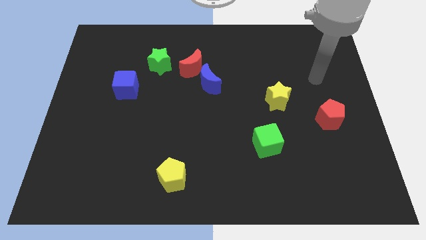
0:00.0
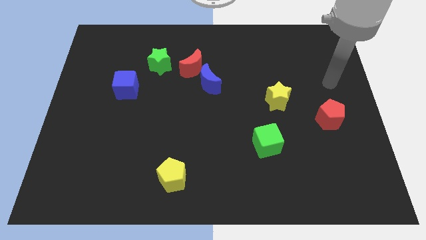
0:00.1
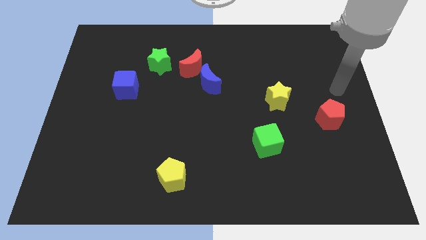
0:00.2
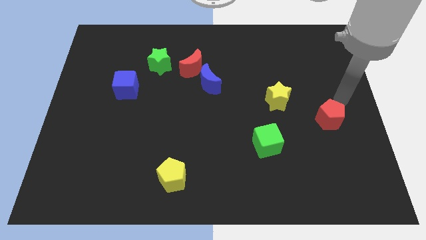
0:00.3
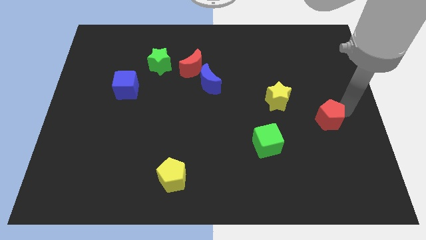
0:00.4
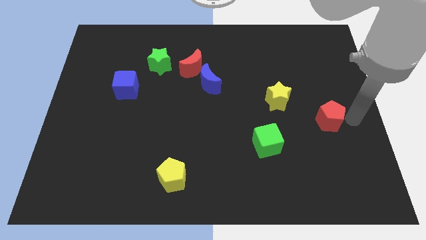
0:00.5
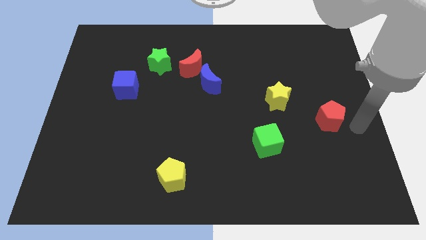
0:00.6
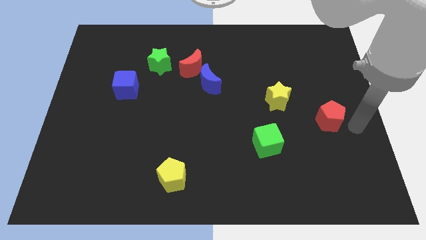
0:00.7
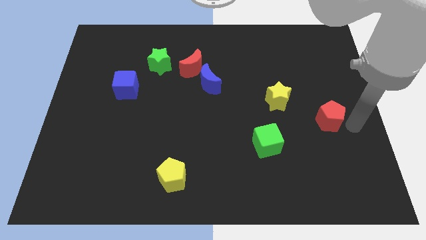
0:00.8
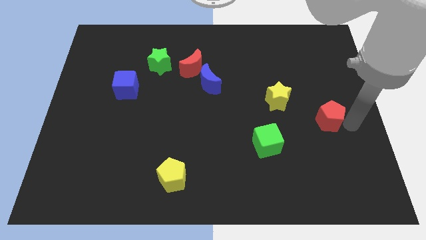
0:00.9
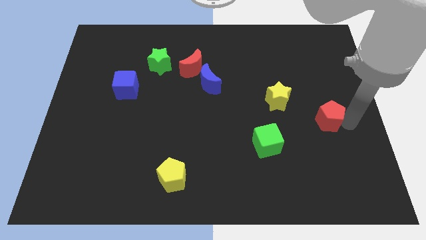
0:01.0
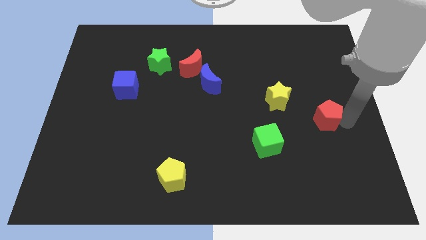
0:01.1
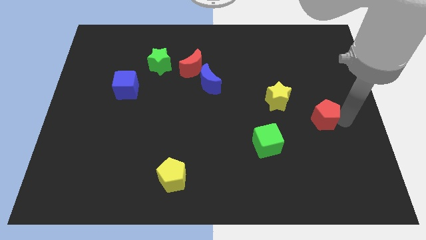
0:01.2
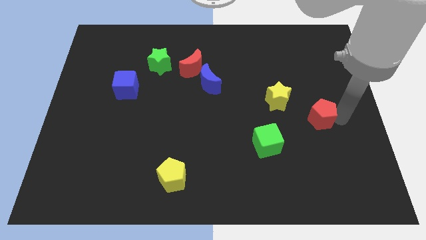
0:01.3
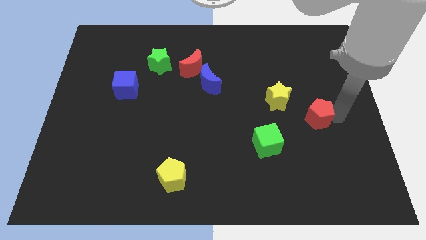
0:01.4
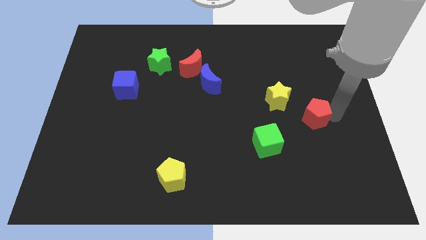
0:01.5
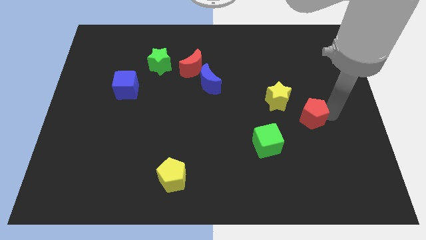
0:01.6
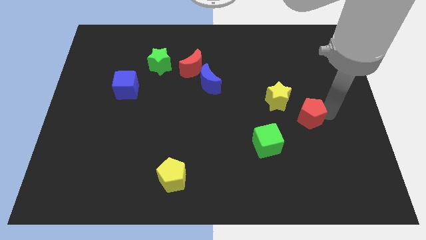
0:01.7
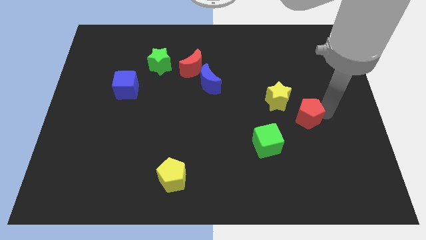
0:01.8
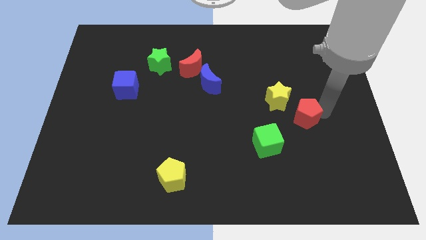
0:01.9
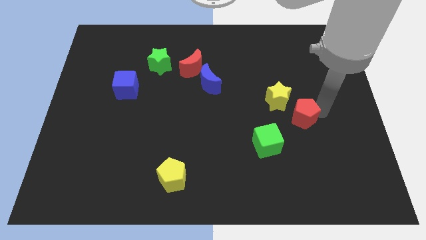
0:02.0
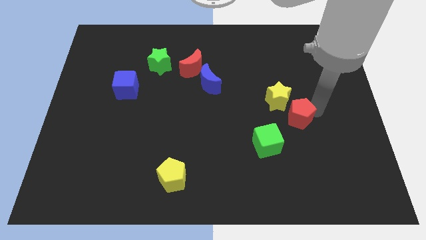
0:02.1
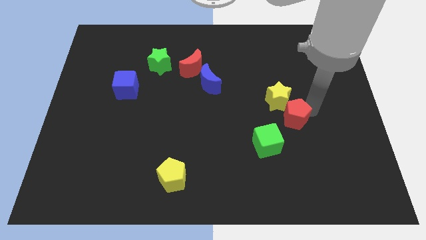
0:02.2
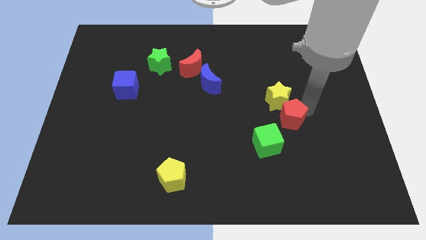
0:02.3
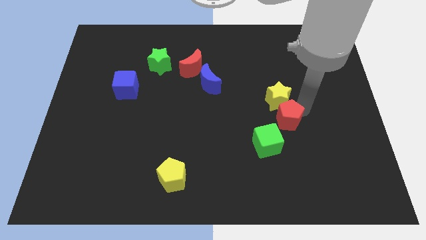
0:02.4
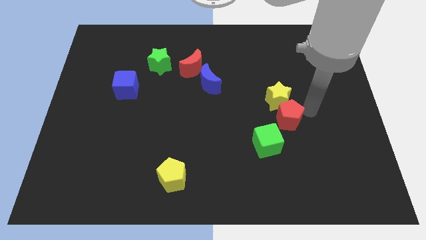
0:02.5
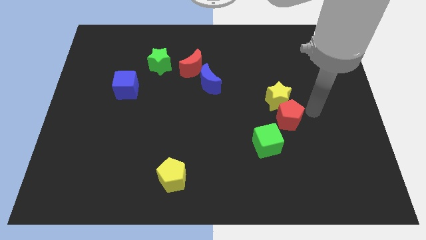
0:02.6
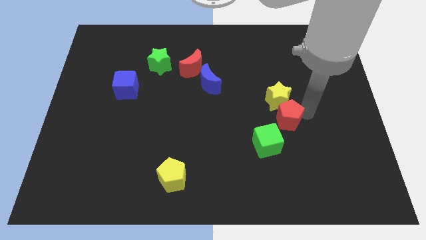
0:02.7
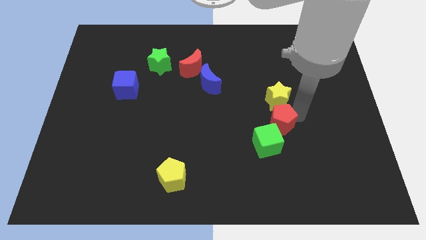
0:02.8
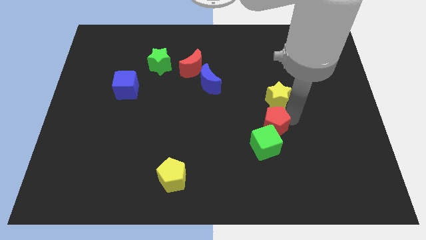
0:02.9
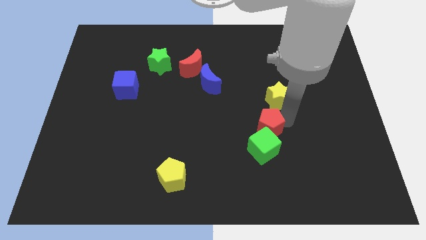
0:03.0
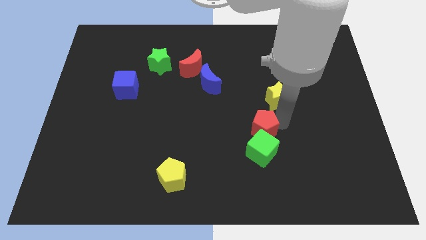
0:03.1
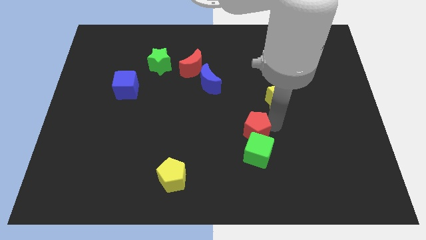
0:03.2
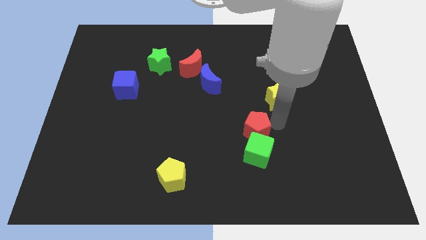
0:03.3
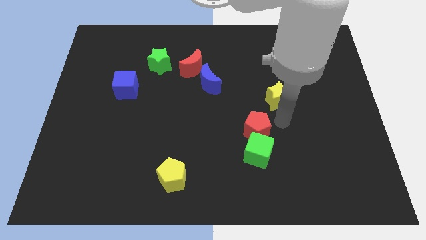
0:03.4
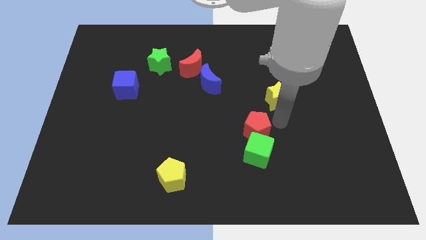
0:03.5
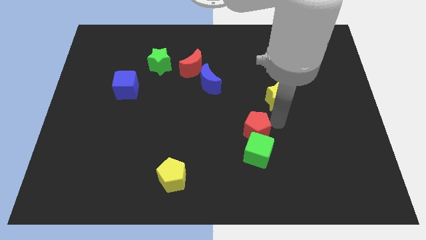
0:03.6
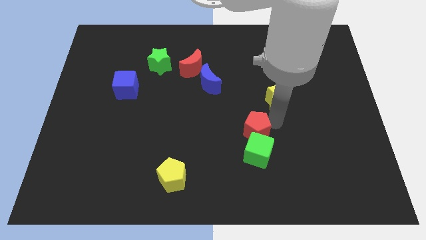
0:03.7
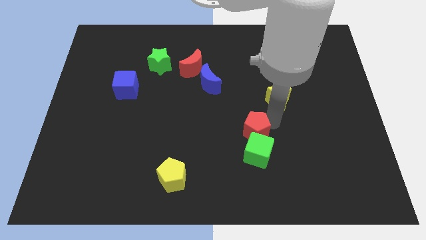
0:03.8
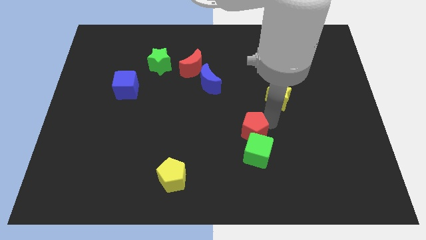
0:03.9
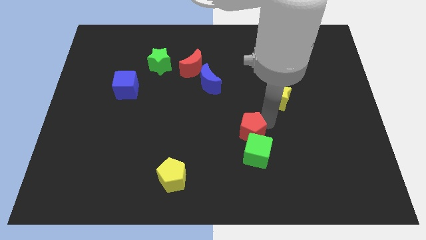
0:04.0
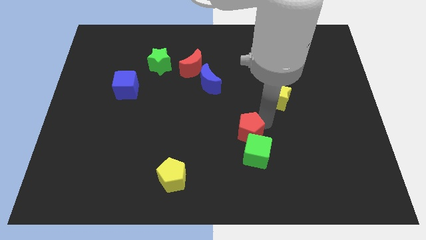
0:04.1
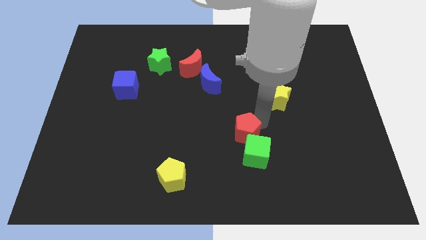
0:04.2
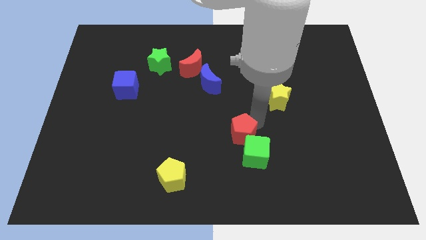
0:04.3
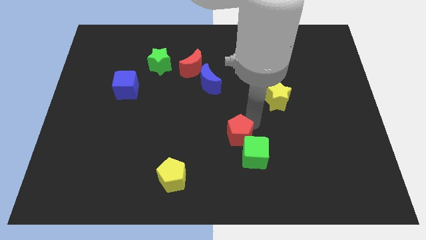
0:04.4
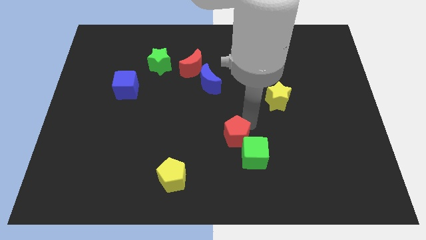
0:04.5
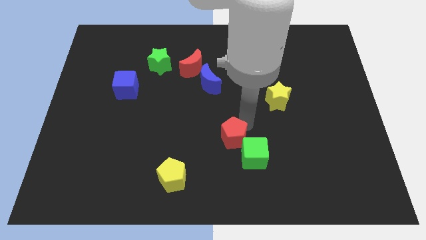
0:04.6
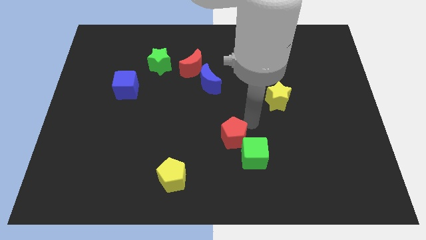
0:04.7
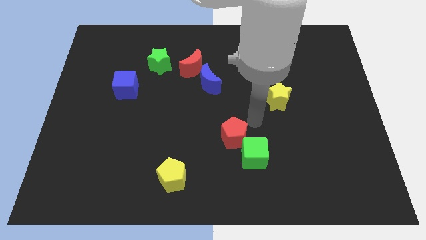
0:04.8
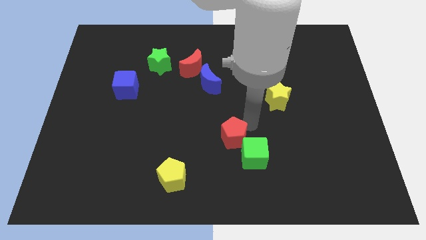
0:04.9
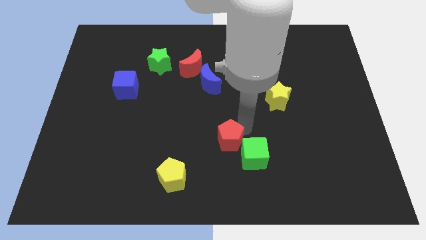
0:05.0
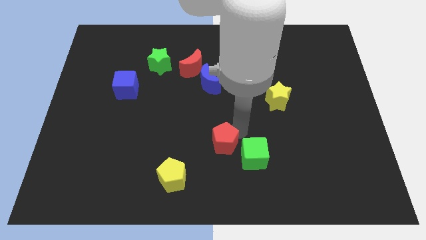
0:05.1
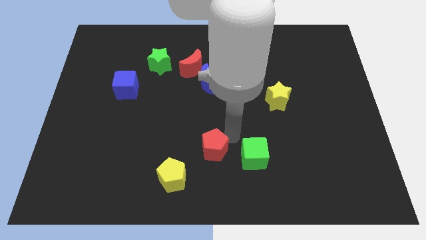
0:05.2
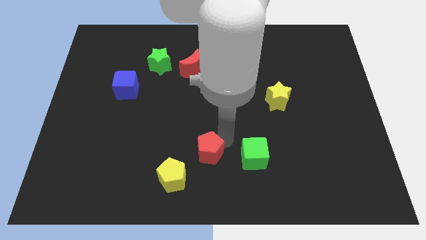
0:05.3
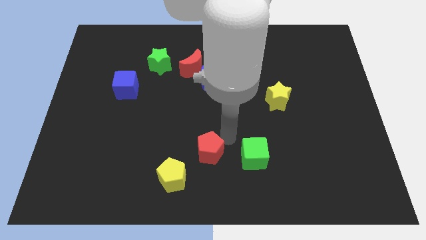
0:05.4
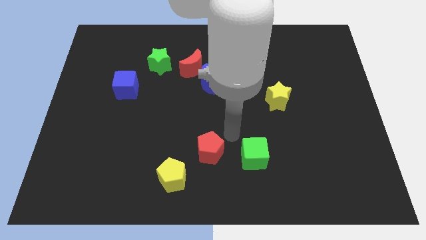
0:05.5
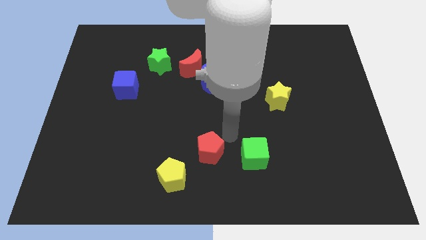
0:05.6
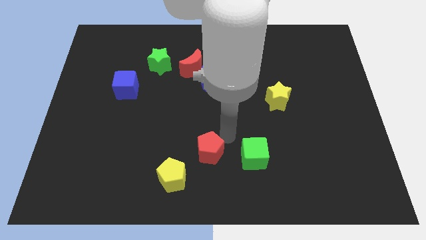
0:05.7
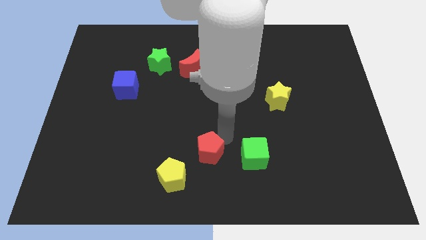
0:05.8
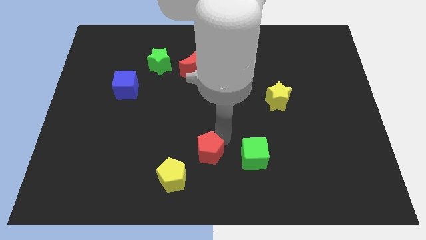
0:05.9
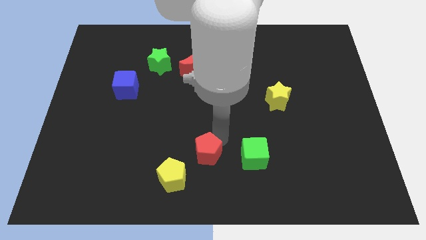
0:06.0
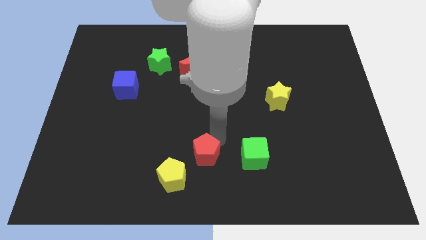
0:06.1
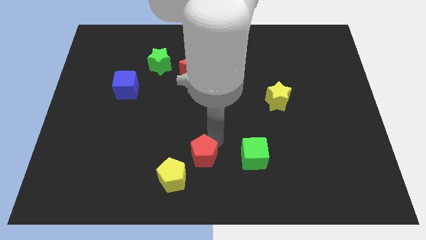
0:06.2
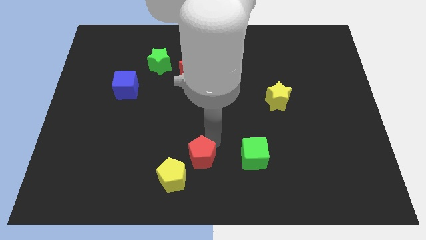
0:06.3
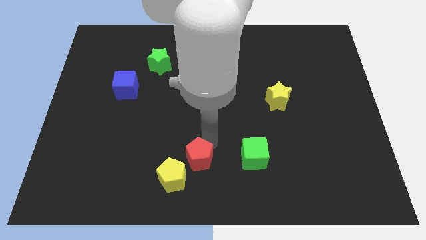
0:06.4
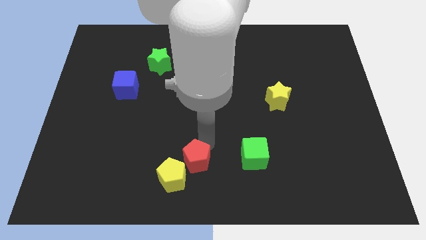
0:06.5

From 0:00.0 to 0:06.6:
slide the red pentagon to the yellow pentagon

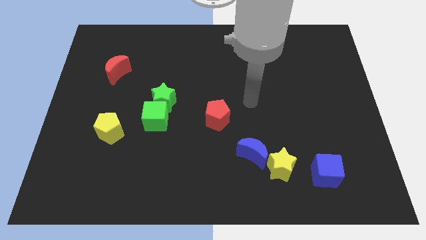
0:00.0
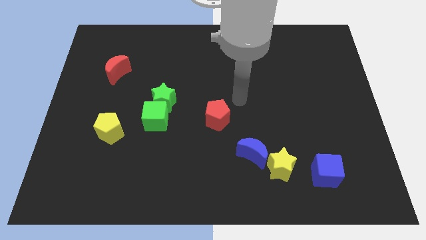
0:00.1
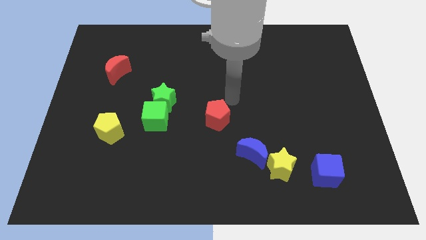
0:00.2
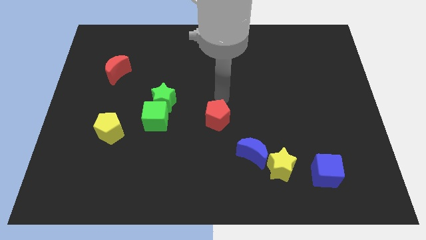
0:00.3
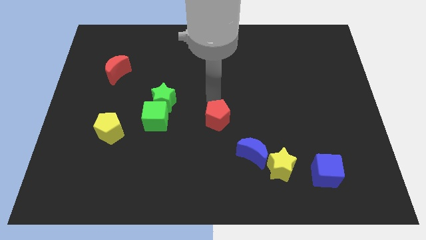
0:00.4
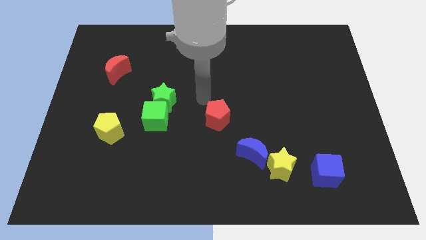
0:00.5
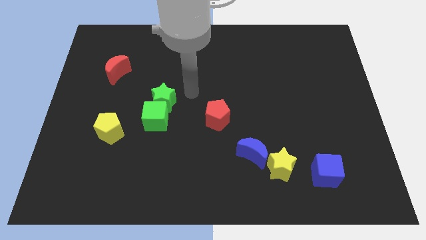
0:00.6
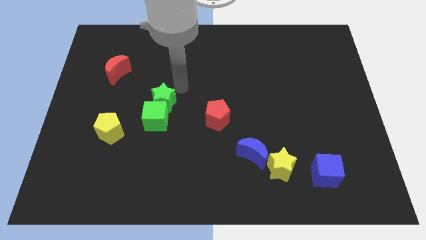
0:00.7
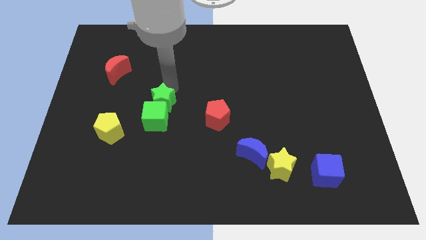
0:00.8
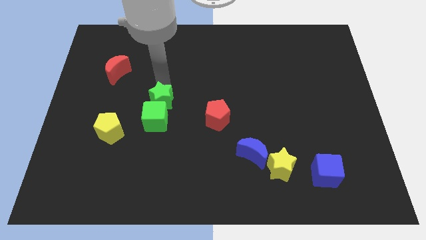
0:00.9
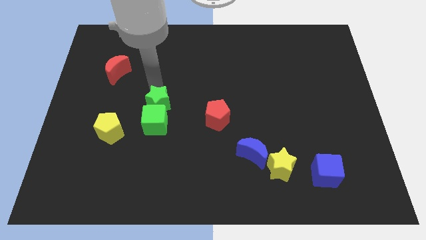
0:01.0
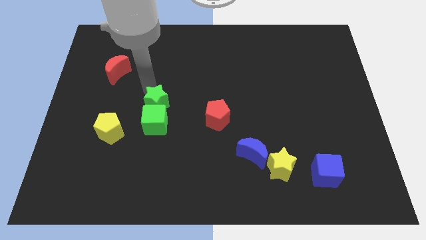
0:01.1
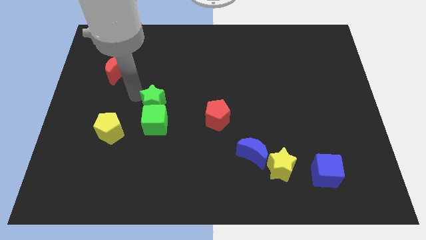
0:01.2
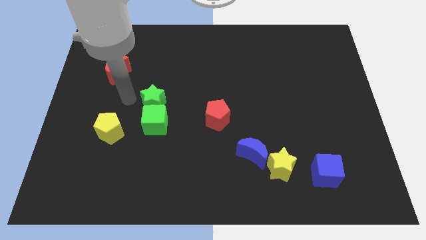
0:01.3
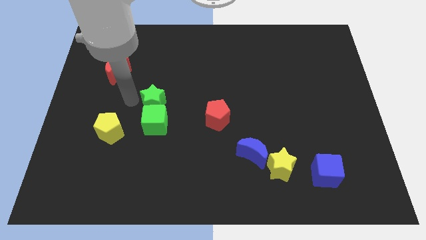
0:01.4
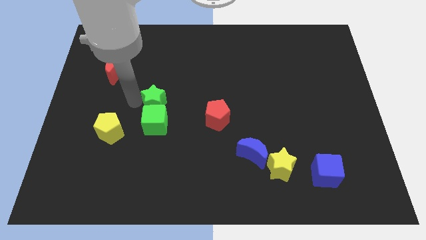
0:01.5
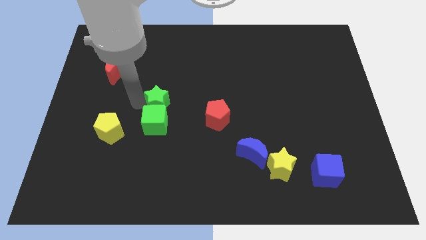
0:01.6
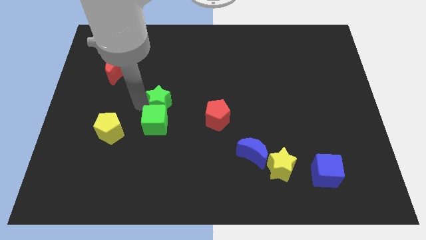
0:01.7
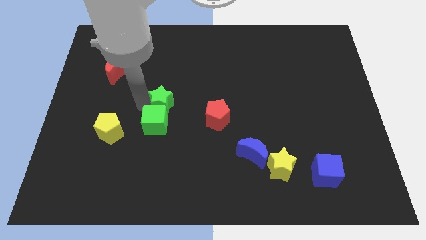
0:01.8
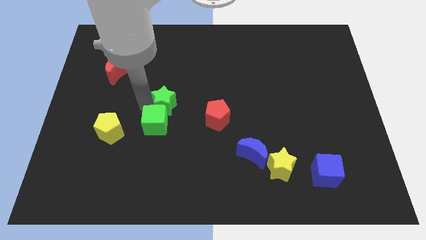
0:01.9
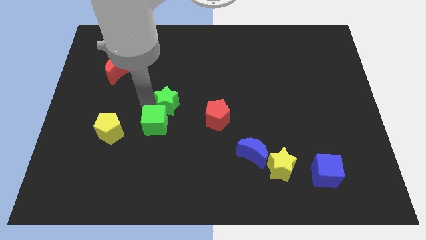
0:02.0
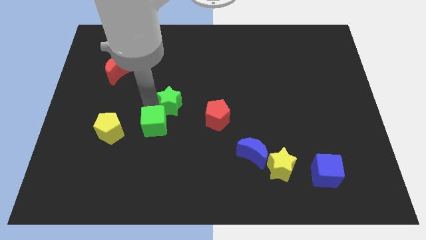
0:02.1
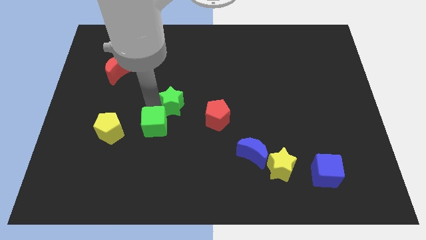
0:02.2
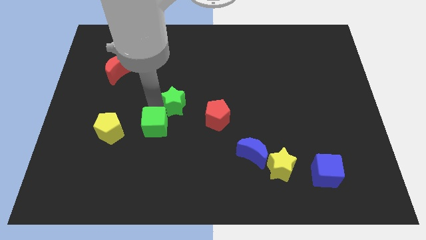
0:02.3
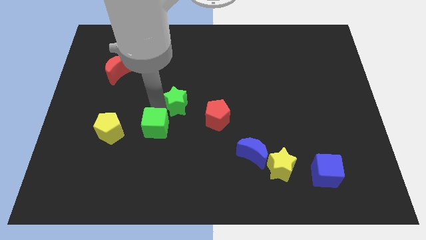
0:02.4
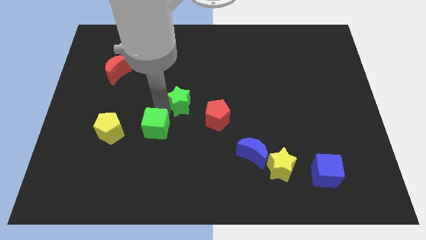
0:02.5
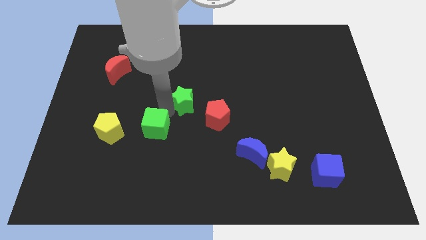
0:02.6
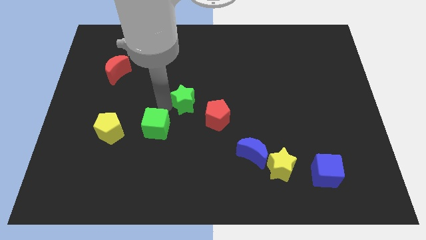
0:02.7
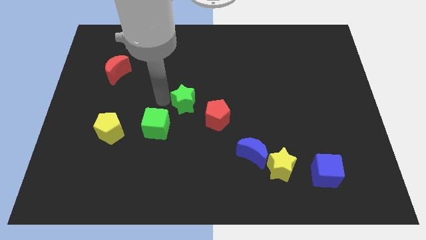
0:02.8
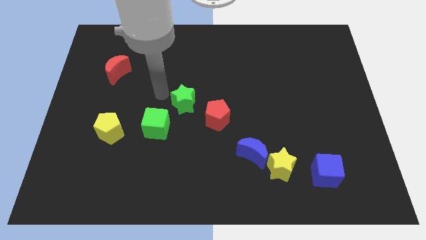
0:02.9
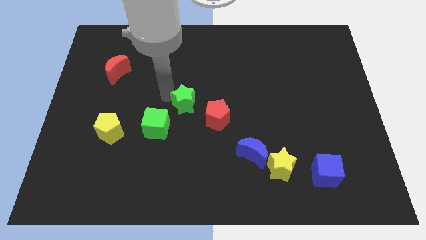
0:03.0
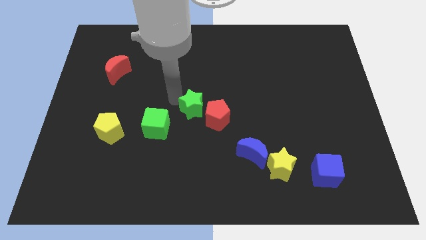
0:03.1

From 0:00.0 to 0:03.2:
move the green star to the red pentagon
